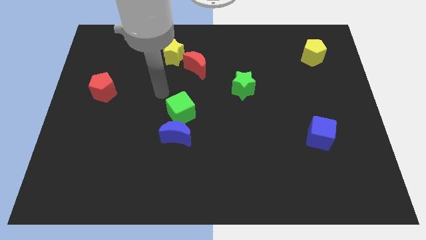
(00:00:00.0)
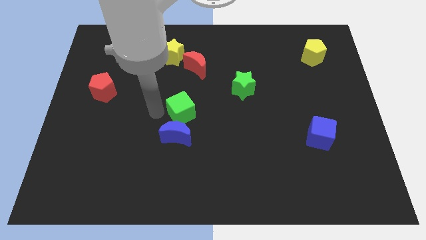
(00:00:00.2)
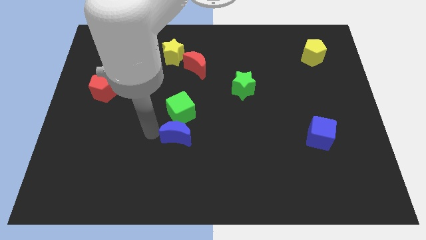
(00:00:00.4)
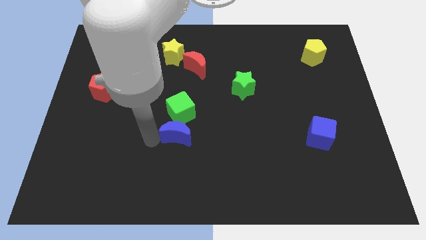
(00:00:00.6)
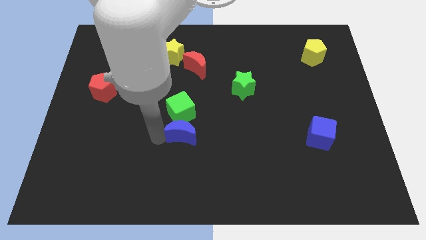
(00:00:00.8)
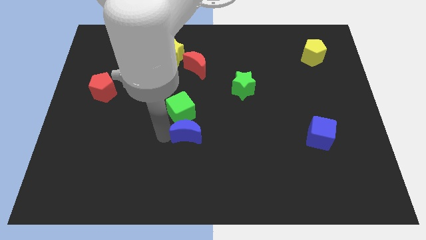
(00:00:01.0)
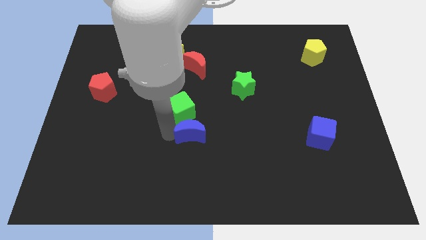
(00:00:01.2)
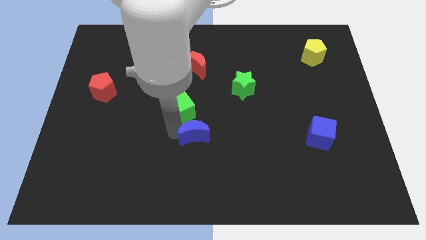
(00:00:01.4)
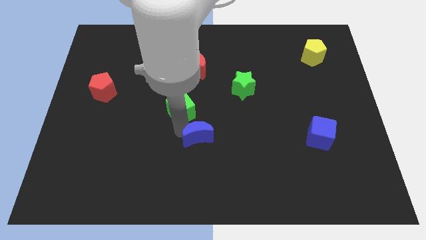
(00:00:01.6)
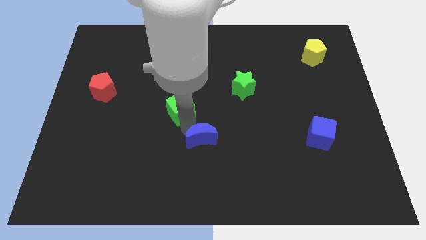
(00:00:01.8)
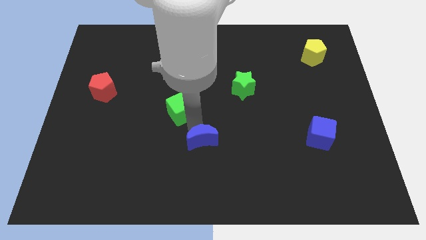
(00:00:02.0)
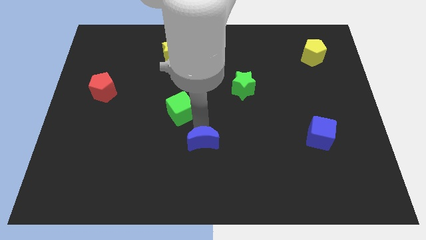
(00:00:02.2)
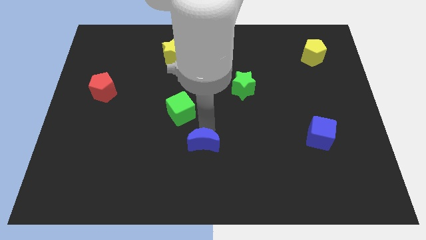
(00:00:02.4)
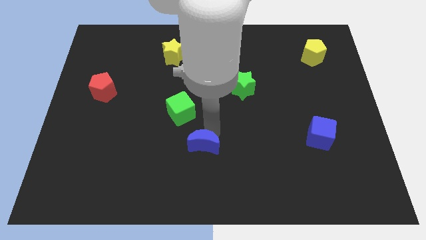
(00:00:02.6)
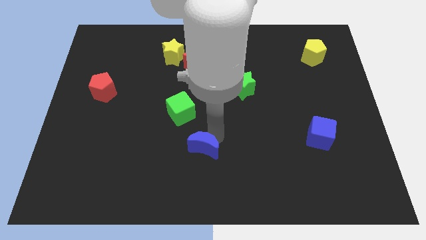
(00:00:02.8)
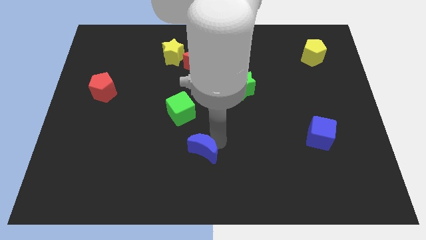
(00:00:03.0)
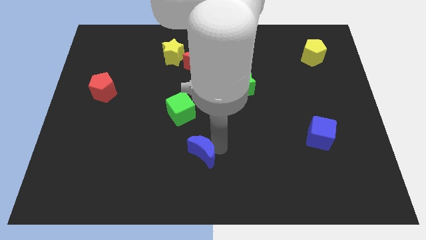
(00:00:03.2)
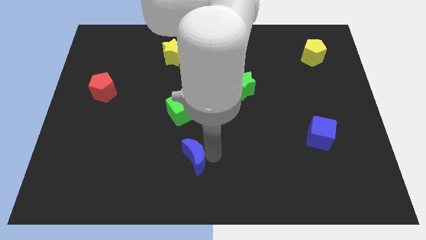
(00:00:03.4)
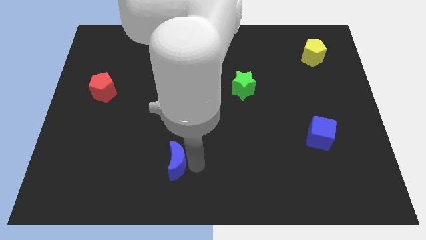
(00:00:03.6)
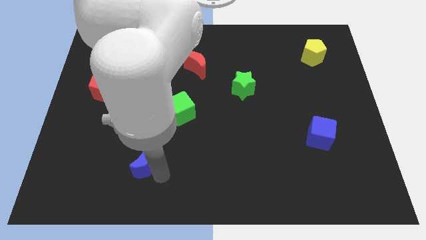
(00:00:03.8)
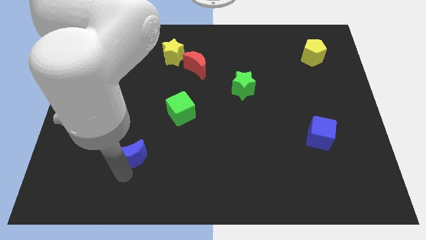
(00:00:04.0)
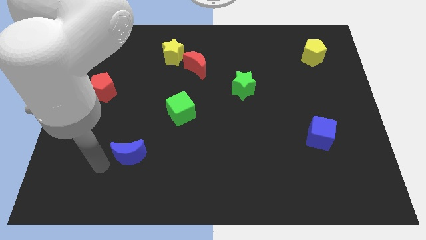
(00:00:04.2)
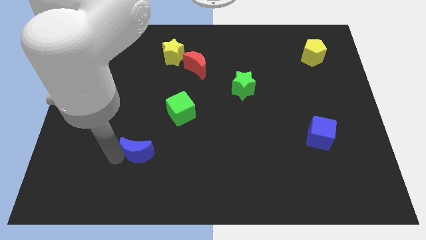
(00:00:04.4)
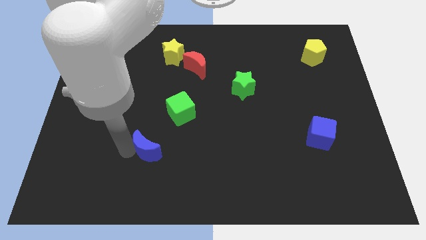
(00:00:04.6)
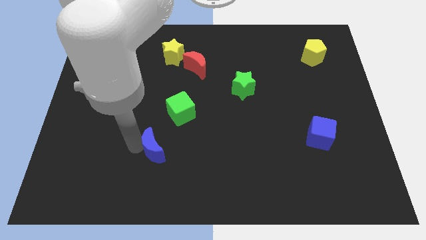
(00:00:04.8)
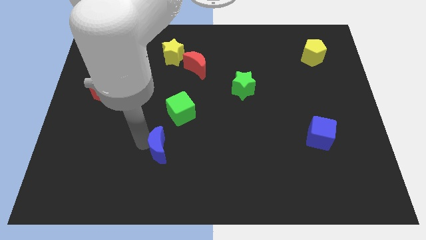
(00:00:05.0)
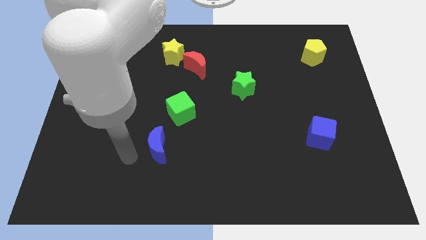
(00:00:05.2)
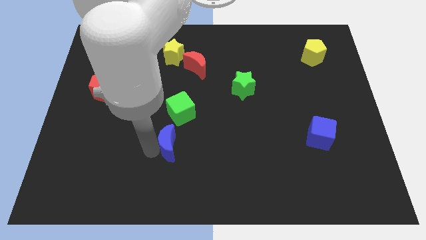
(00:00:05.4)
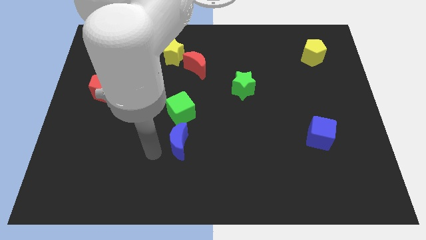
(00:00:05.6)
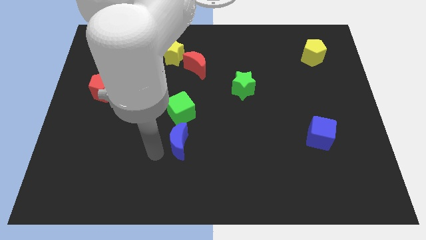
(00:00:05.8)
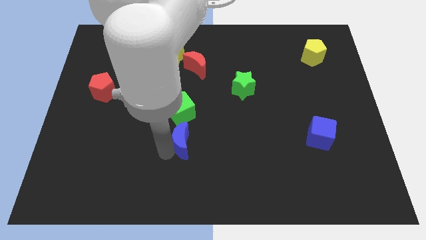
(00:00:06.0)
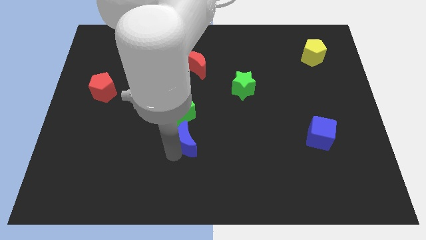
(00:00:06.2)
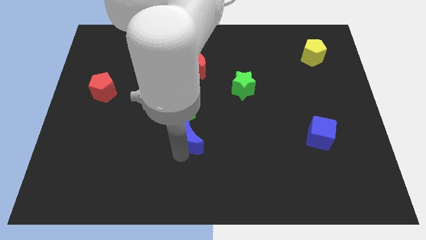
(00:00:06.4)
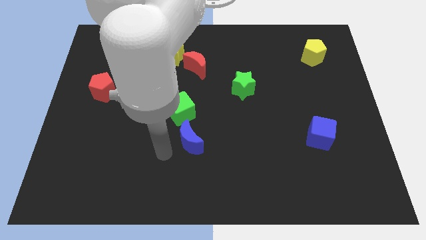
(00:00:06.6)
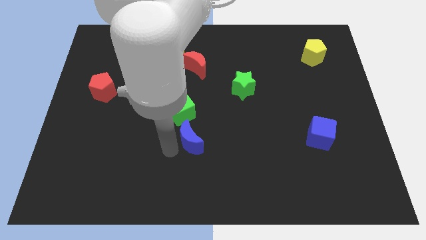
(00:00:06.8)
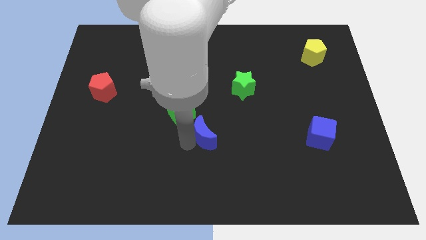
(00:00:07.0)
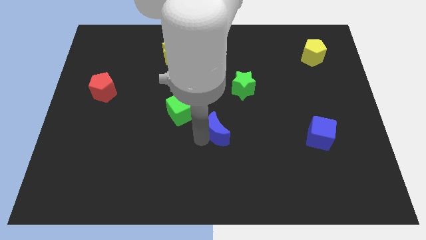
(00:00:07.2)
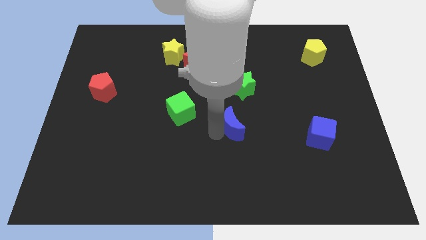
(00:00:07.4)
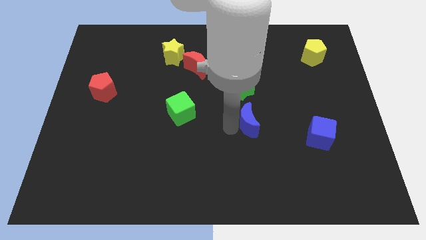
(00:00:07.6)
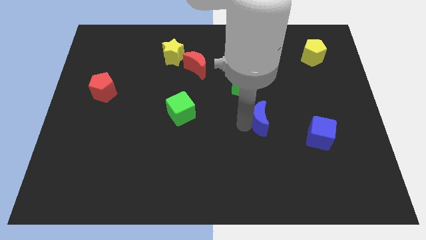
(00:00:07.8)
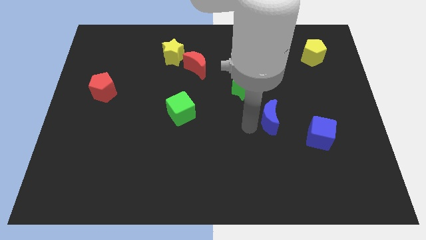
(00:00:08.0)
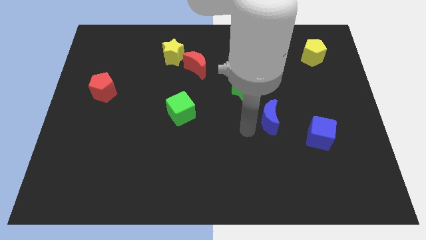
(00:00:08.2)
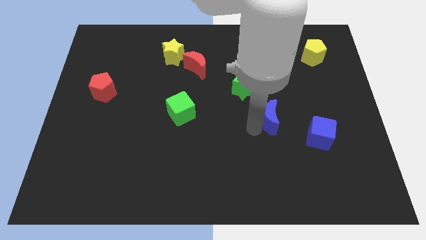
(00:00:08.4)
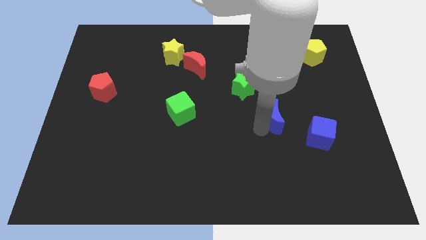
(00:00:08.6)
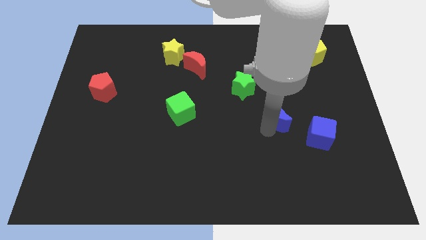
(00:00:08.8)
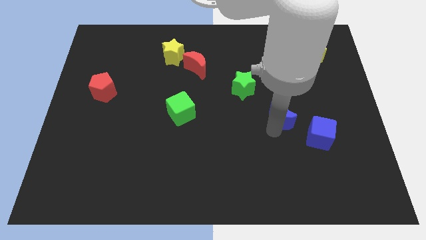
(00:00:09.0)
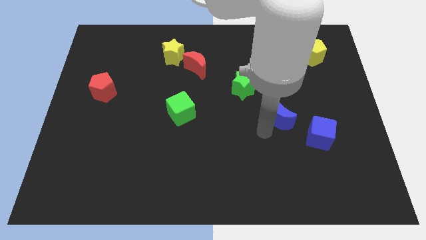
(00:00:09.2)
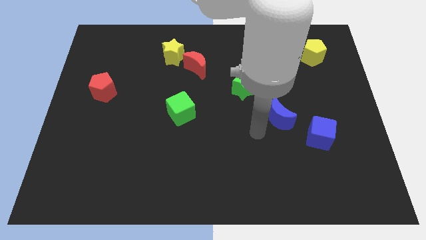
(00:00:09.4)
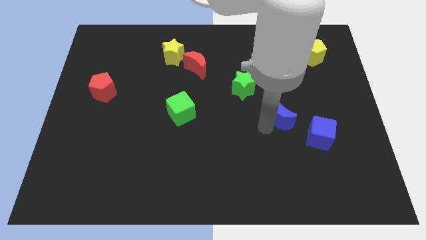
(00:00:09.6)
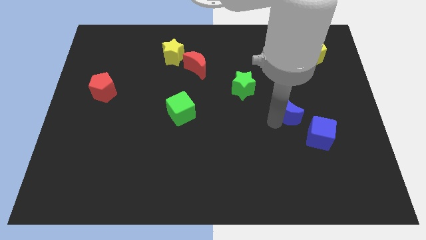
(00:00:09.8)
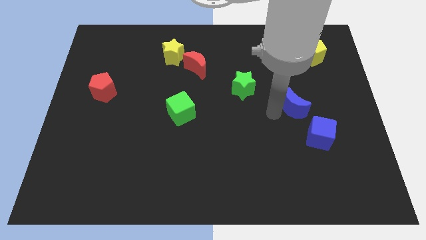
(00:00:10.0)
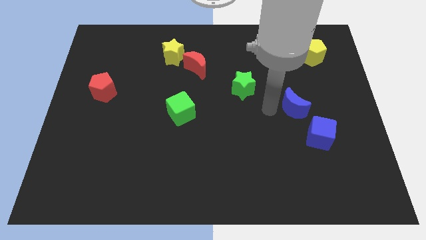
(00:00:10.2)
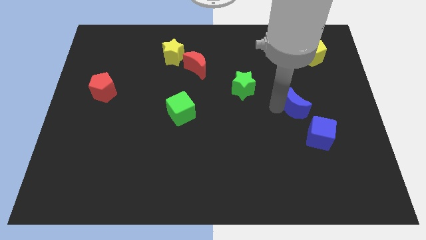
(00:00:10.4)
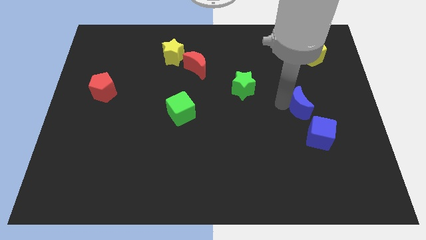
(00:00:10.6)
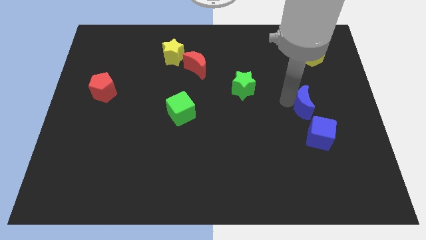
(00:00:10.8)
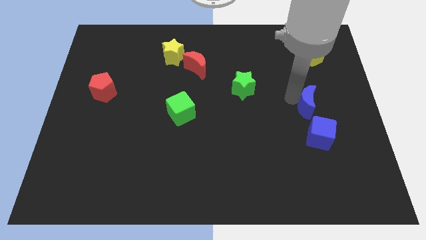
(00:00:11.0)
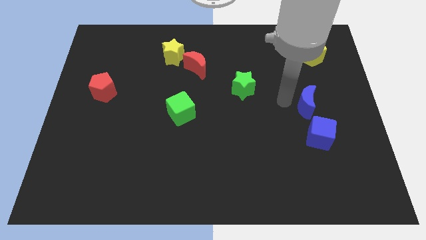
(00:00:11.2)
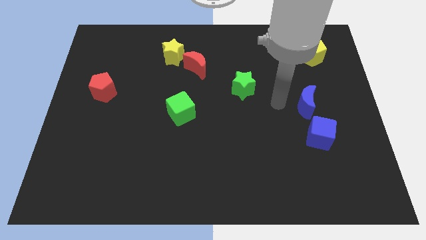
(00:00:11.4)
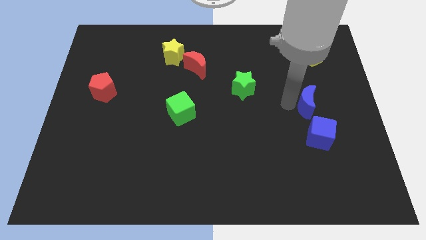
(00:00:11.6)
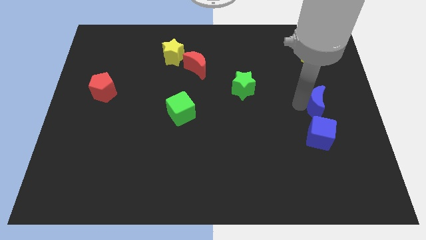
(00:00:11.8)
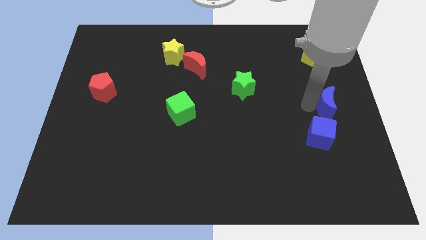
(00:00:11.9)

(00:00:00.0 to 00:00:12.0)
slide the blue moon to the right side of the board
